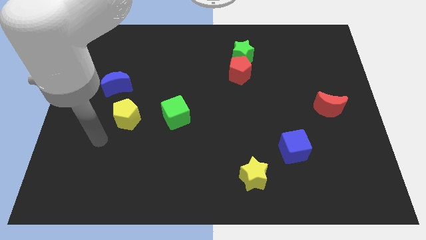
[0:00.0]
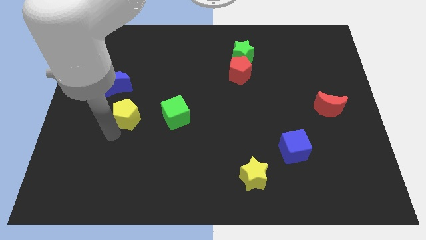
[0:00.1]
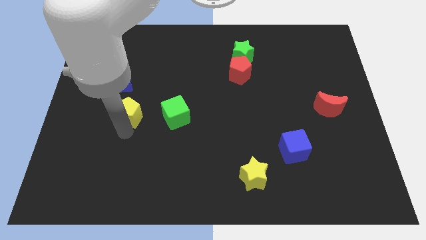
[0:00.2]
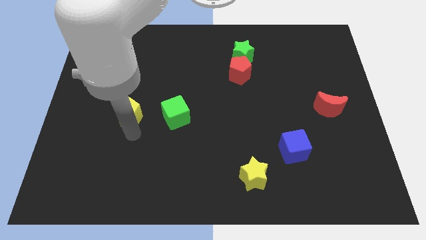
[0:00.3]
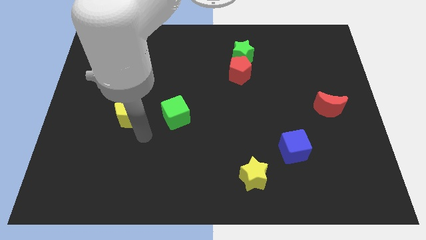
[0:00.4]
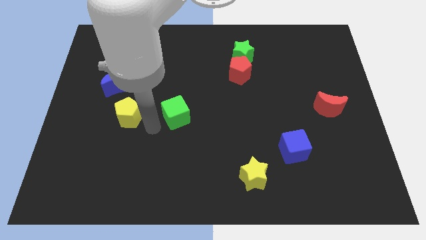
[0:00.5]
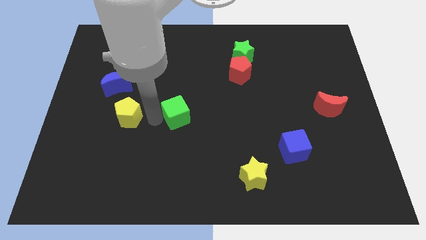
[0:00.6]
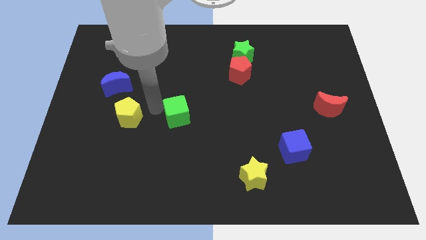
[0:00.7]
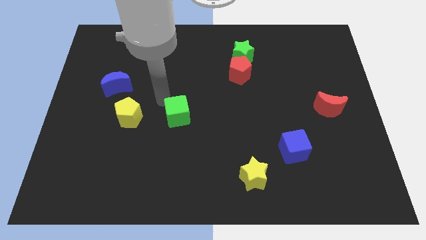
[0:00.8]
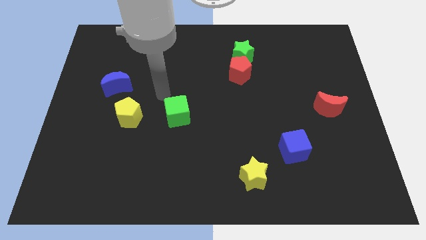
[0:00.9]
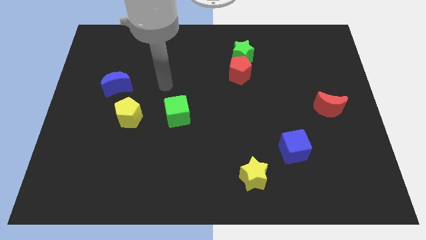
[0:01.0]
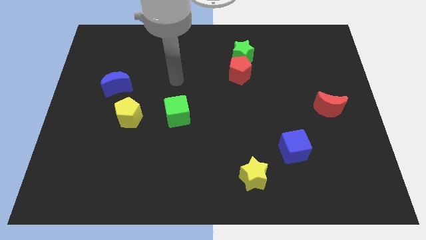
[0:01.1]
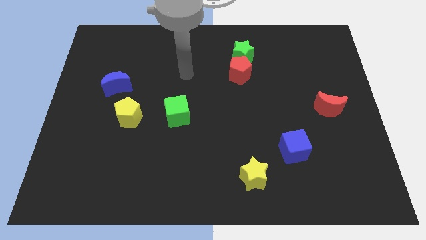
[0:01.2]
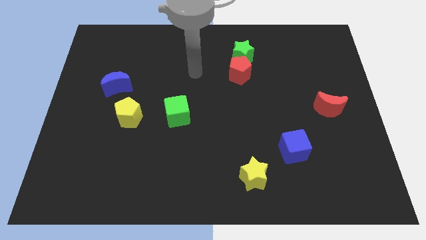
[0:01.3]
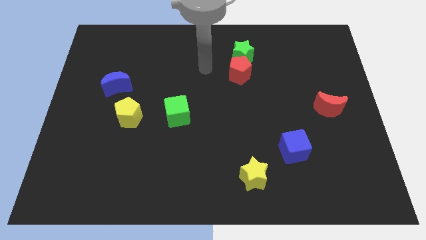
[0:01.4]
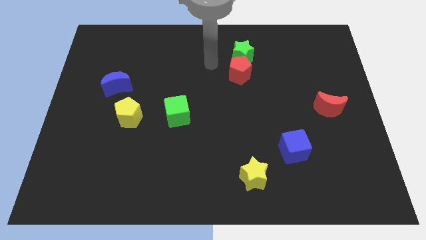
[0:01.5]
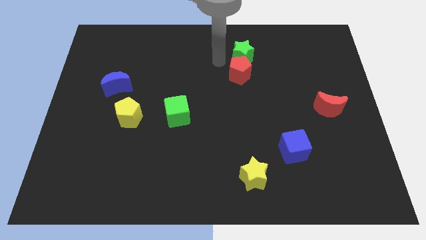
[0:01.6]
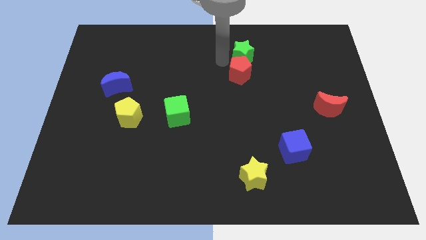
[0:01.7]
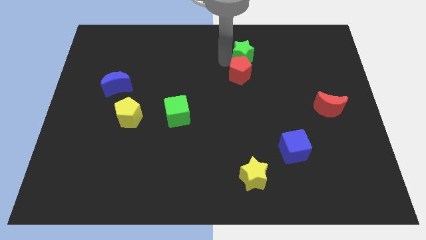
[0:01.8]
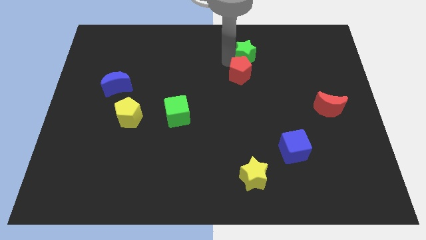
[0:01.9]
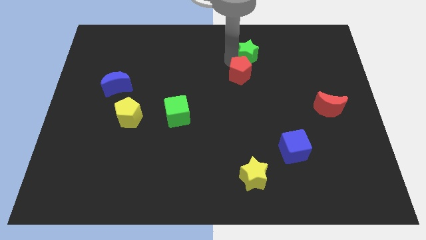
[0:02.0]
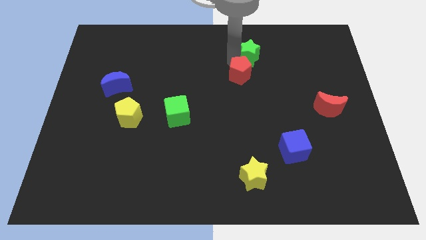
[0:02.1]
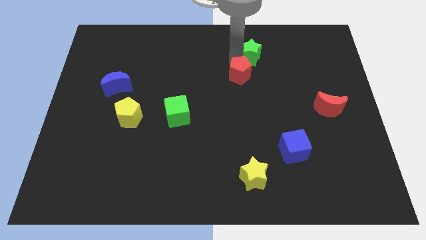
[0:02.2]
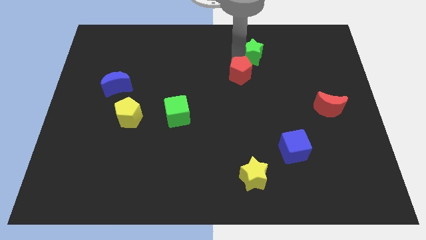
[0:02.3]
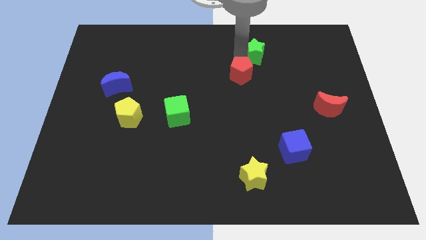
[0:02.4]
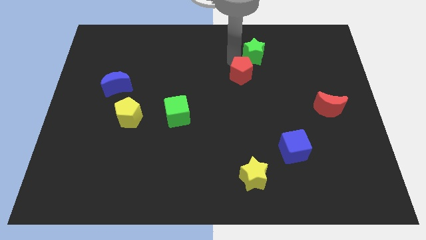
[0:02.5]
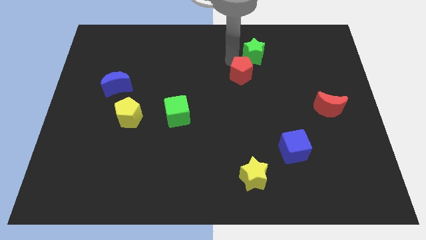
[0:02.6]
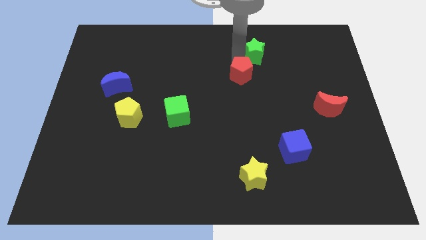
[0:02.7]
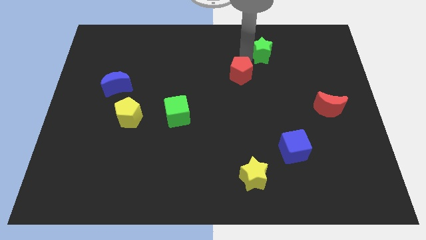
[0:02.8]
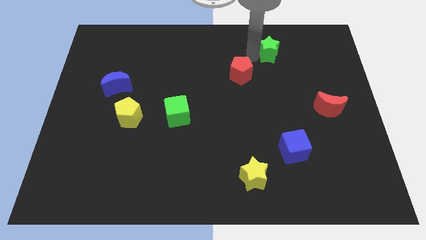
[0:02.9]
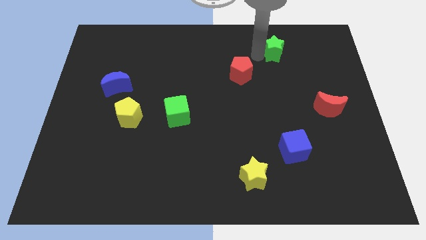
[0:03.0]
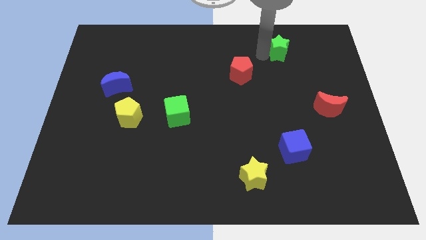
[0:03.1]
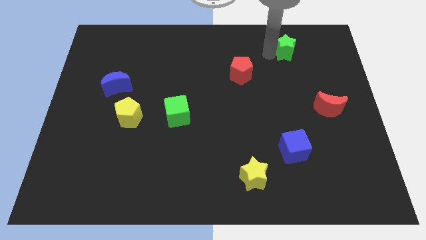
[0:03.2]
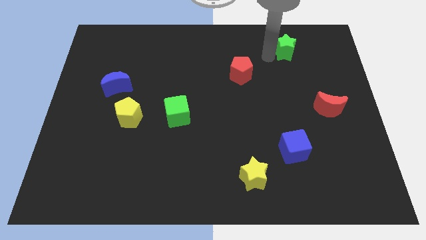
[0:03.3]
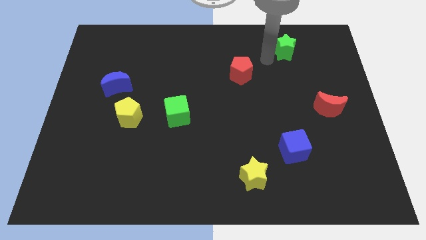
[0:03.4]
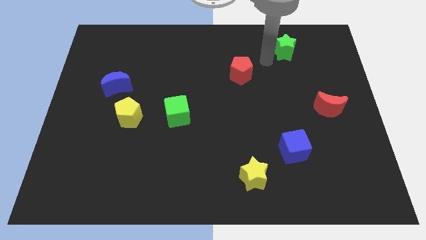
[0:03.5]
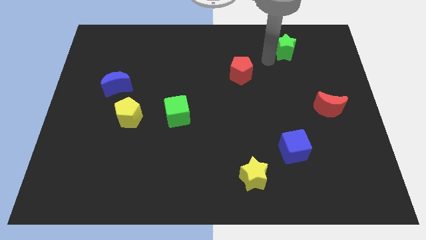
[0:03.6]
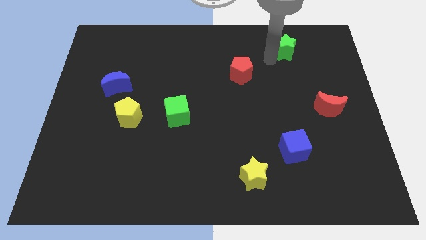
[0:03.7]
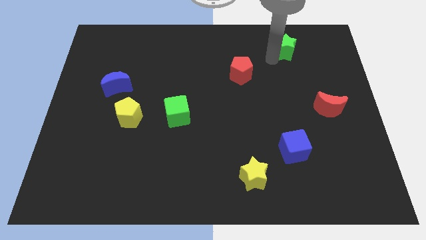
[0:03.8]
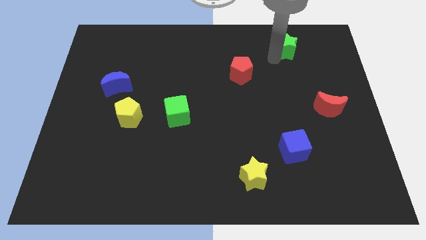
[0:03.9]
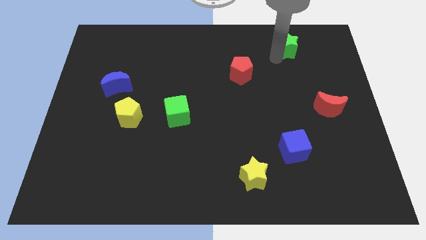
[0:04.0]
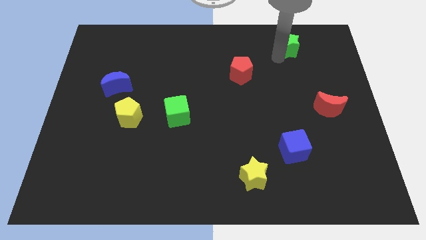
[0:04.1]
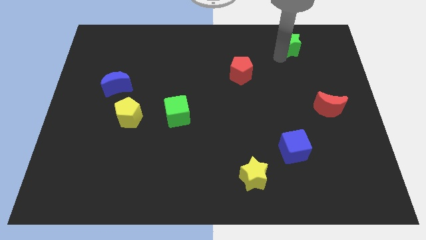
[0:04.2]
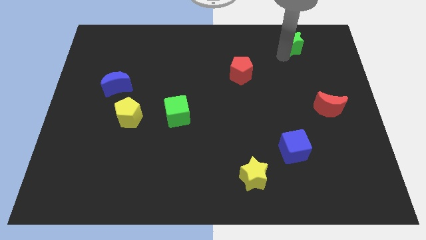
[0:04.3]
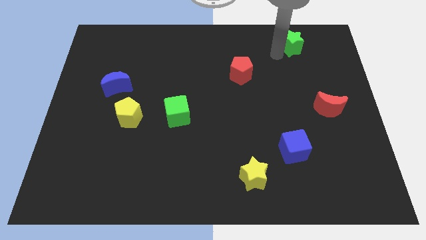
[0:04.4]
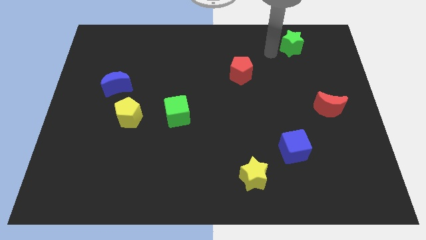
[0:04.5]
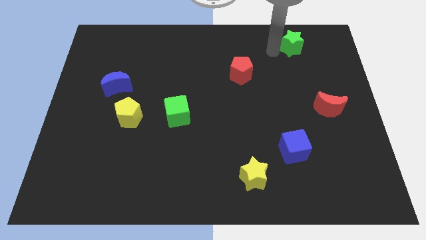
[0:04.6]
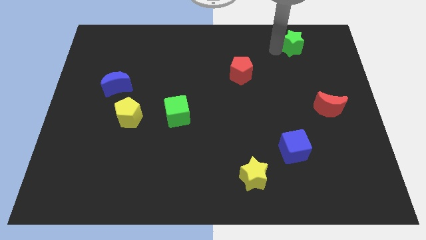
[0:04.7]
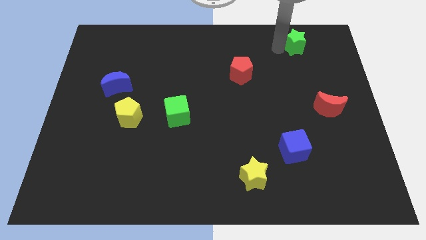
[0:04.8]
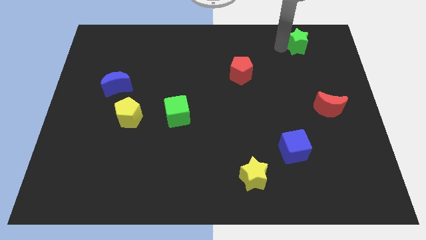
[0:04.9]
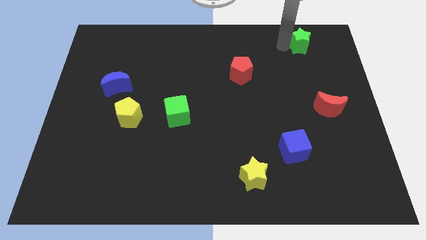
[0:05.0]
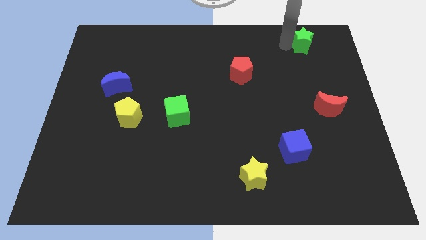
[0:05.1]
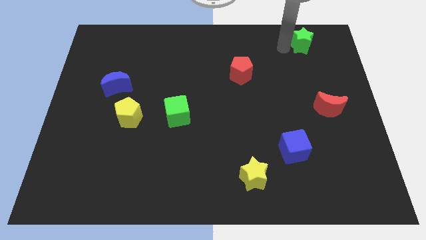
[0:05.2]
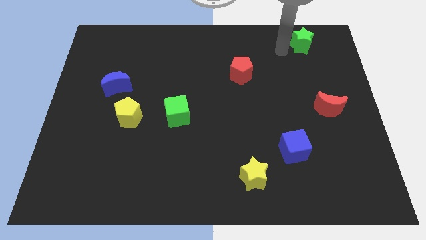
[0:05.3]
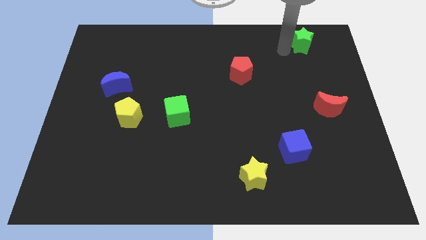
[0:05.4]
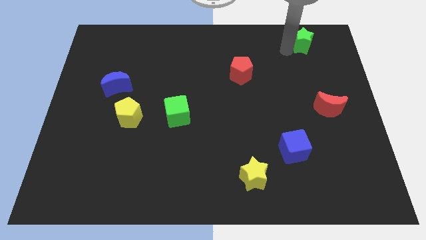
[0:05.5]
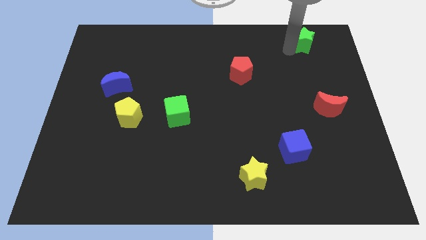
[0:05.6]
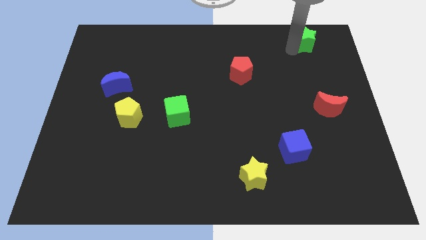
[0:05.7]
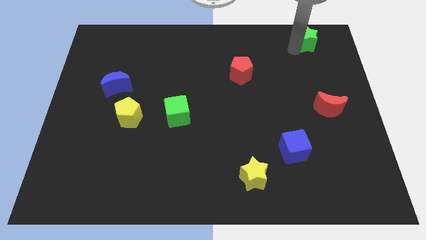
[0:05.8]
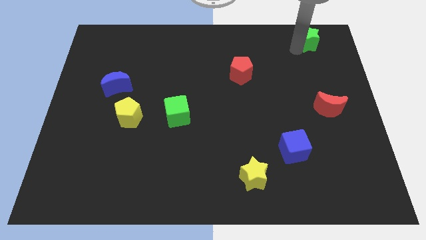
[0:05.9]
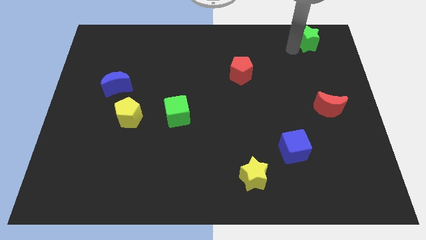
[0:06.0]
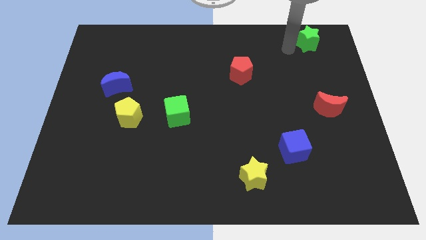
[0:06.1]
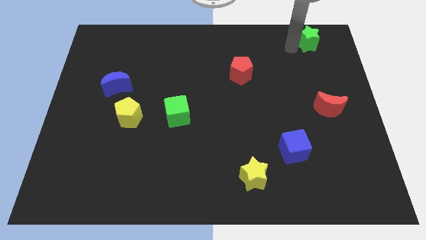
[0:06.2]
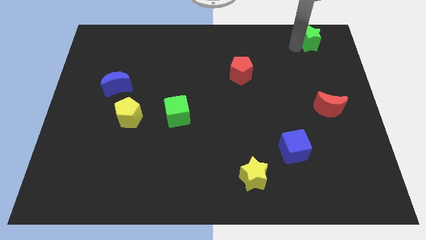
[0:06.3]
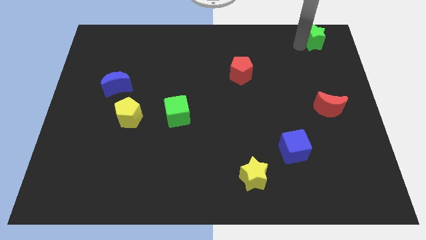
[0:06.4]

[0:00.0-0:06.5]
put the green star to the upper right corner
